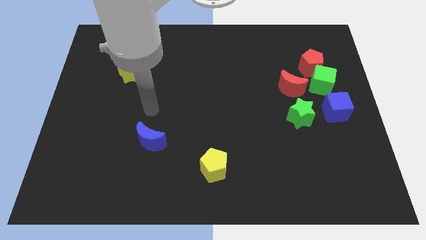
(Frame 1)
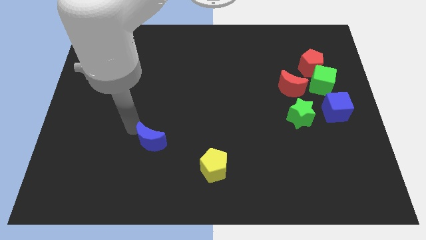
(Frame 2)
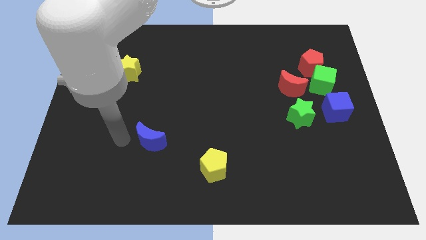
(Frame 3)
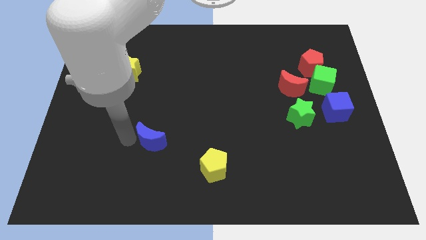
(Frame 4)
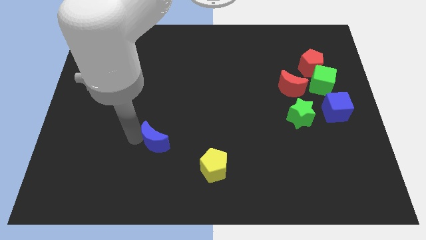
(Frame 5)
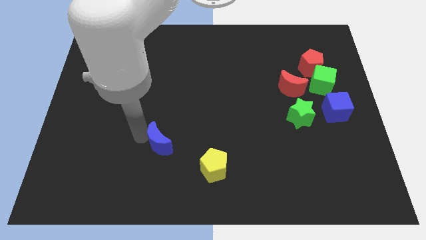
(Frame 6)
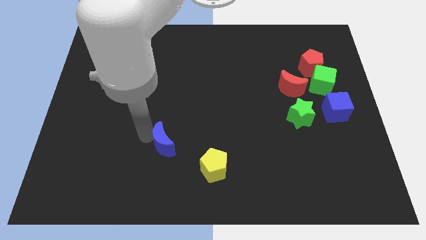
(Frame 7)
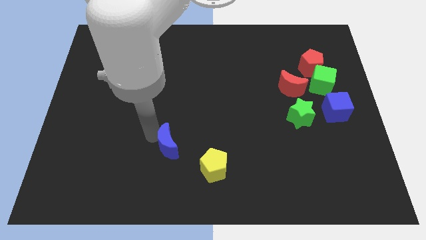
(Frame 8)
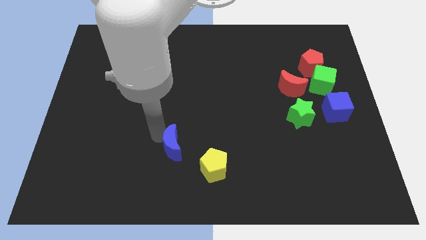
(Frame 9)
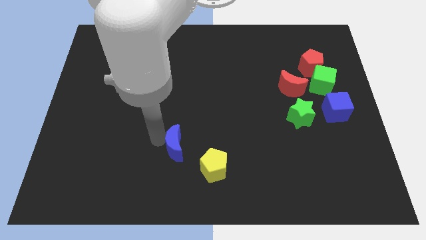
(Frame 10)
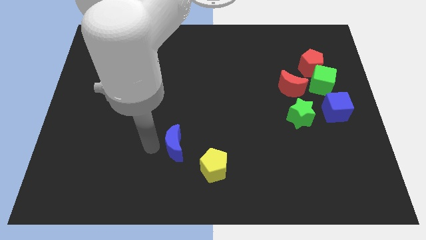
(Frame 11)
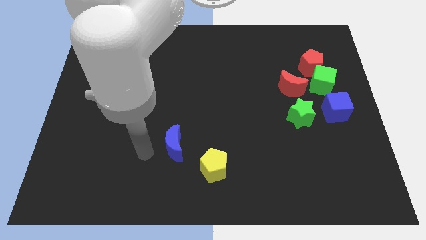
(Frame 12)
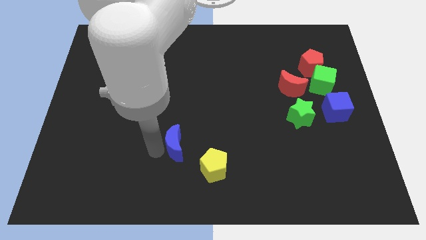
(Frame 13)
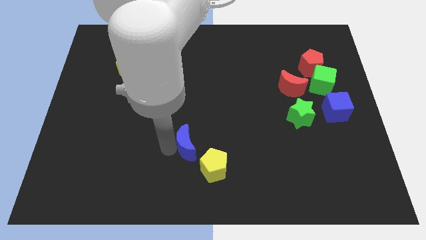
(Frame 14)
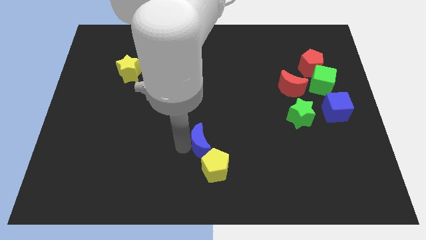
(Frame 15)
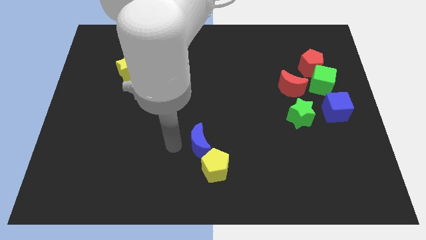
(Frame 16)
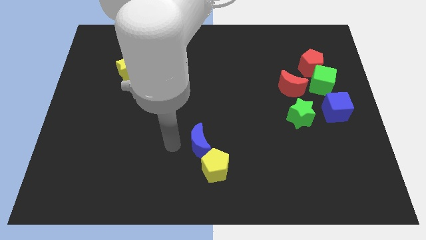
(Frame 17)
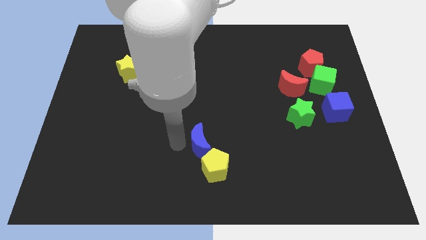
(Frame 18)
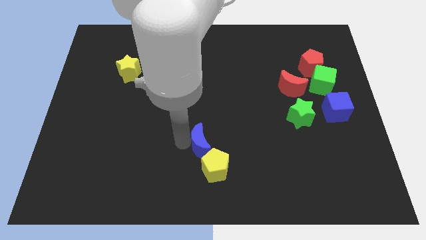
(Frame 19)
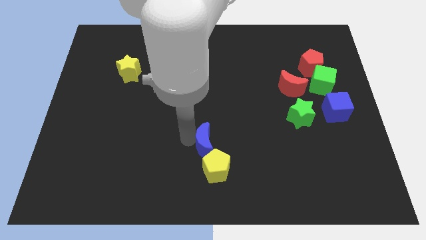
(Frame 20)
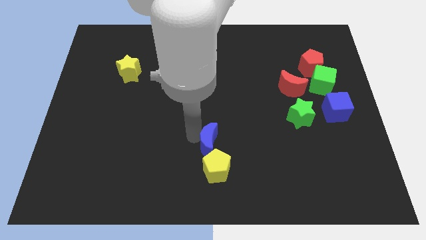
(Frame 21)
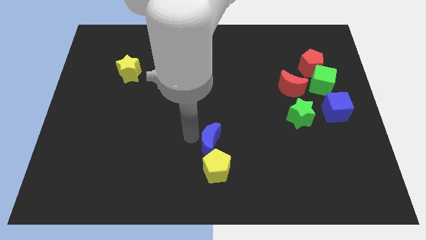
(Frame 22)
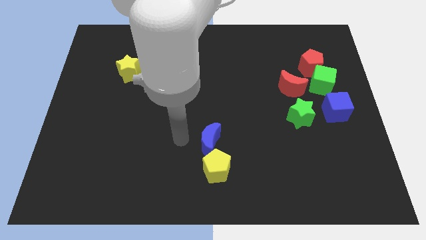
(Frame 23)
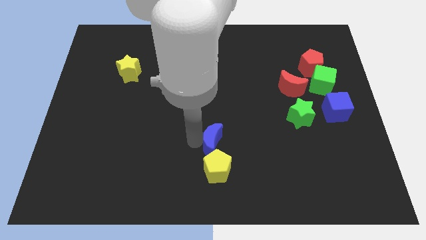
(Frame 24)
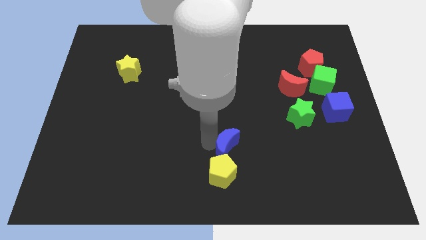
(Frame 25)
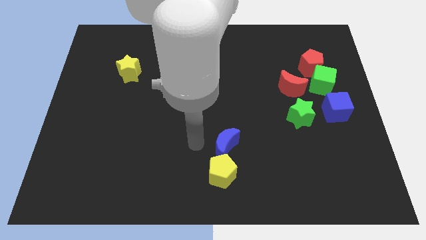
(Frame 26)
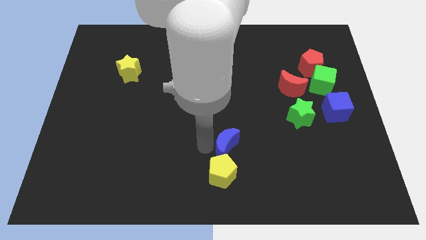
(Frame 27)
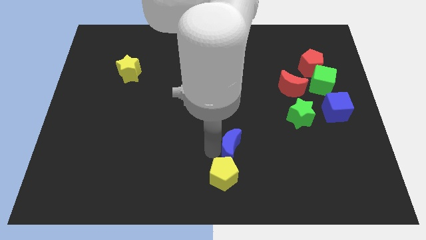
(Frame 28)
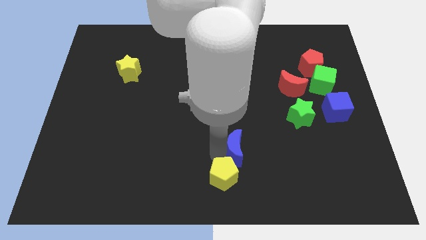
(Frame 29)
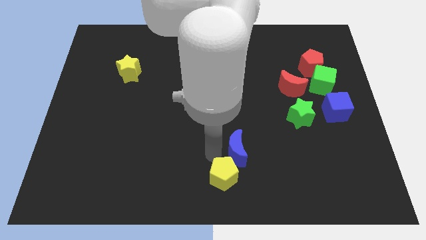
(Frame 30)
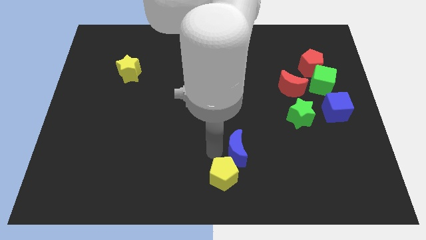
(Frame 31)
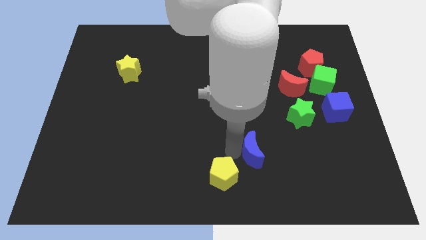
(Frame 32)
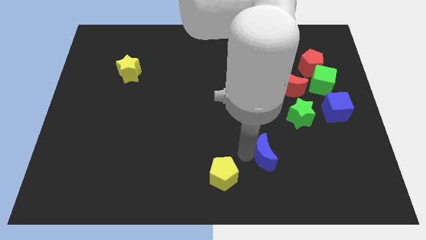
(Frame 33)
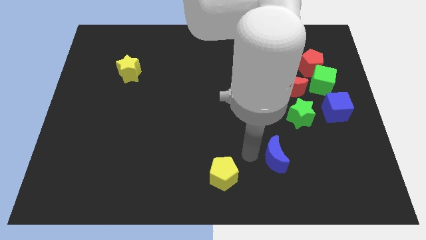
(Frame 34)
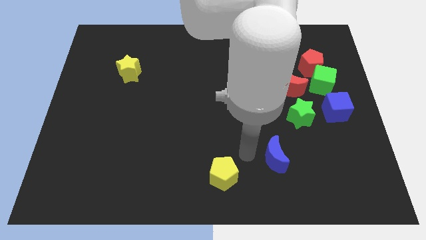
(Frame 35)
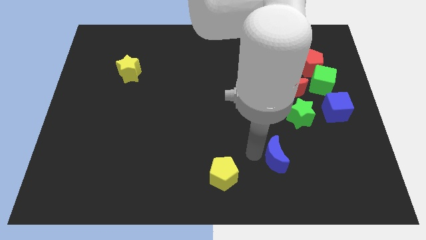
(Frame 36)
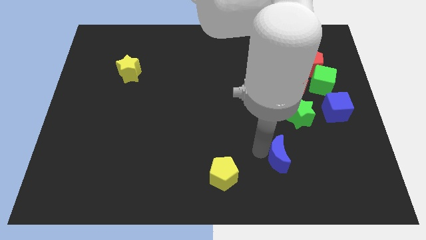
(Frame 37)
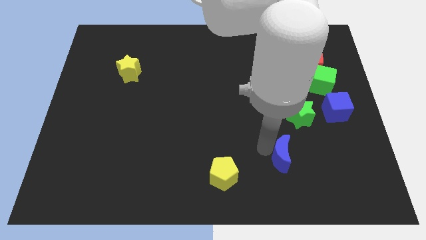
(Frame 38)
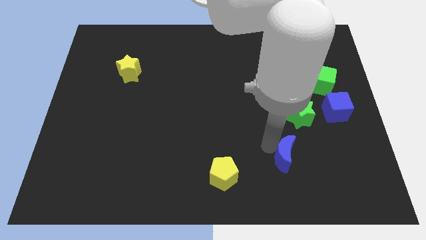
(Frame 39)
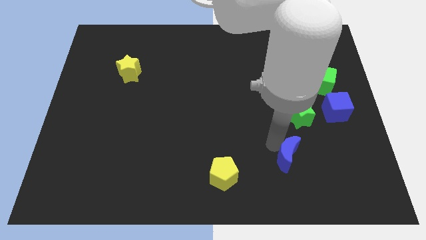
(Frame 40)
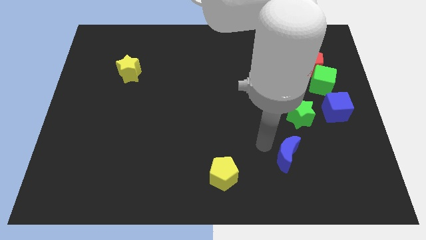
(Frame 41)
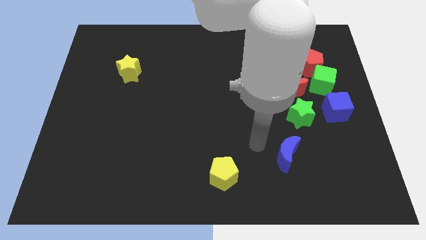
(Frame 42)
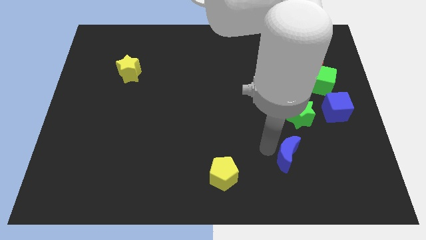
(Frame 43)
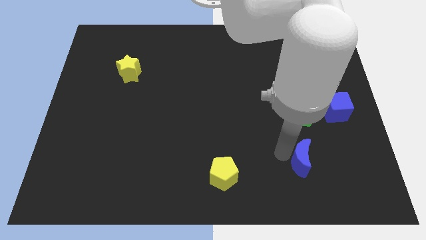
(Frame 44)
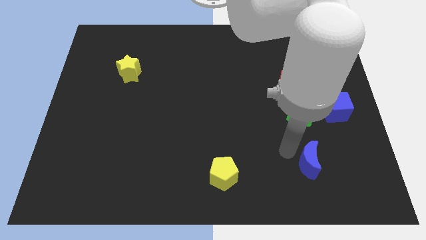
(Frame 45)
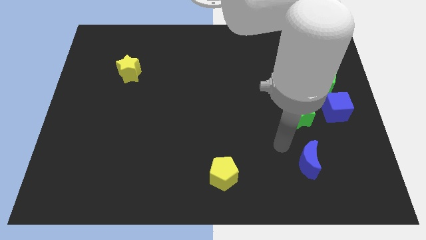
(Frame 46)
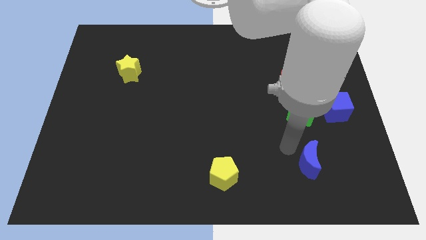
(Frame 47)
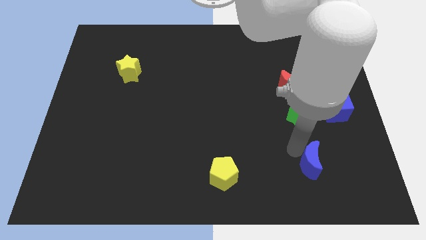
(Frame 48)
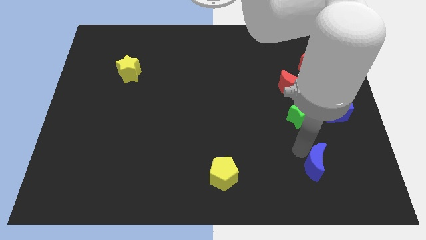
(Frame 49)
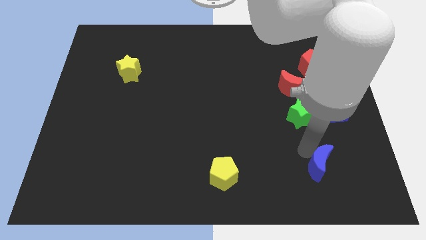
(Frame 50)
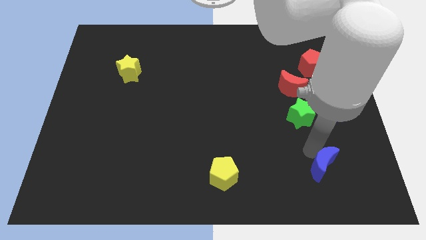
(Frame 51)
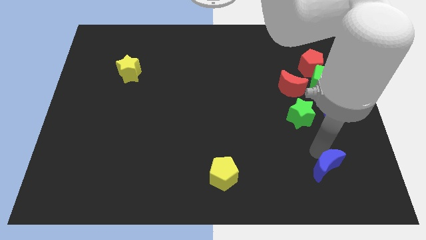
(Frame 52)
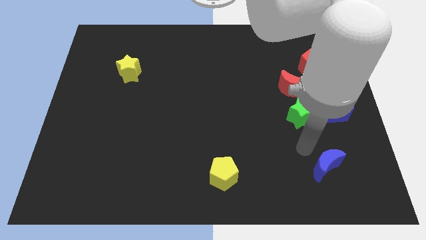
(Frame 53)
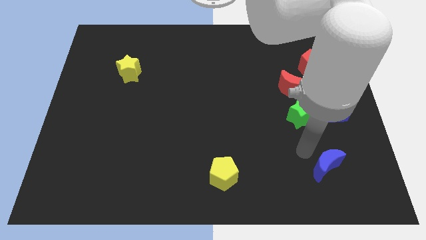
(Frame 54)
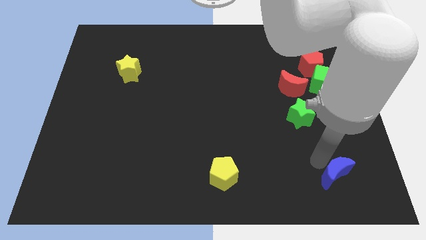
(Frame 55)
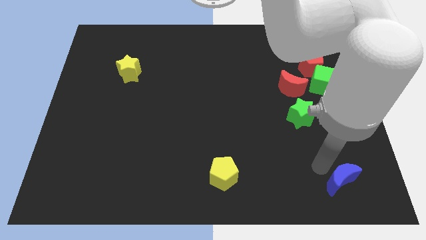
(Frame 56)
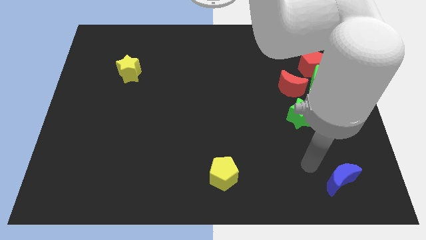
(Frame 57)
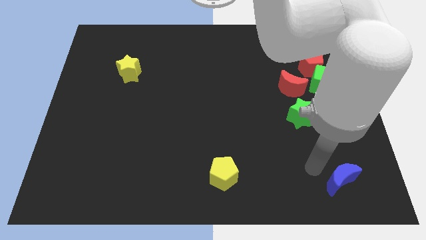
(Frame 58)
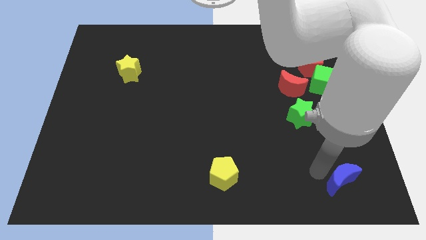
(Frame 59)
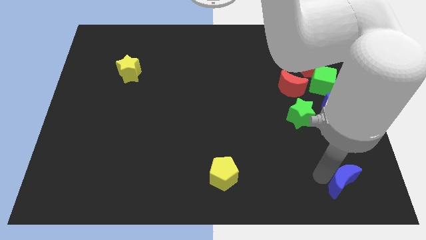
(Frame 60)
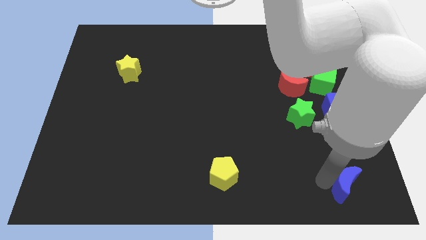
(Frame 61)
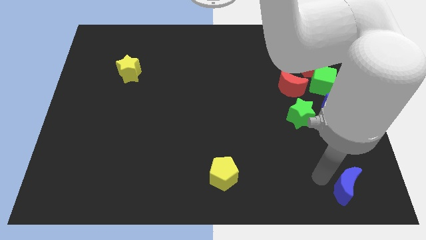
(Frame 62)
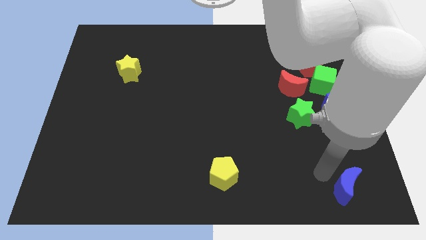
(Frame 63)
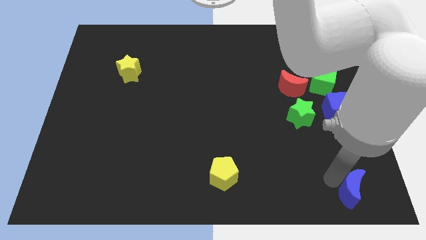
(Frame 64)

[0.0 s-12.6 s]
move the blue moon to the bottom right corner
